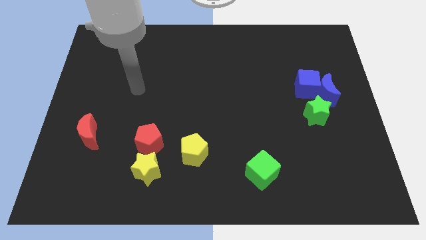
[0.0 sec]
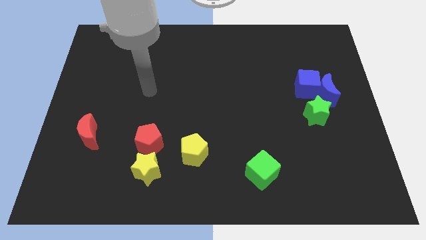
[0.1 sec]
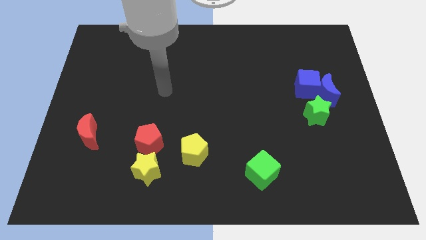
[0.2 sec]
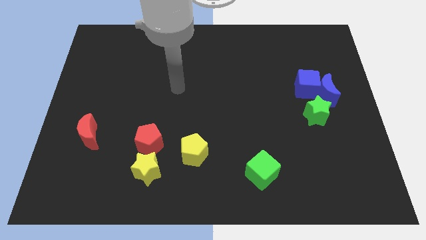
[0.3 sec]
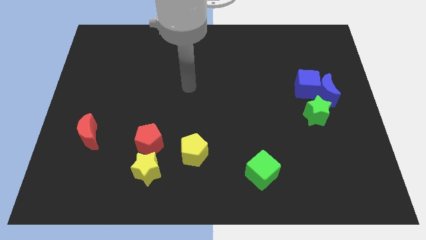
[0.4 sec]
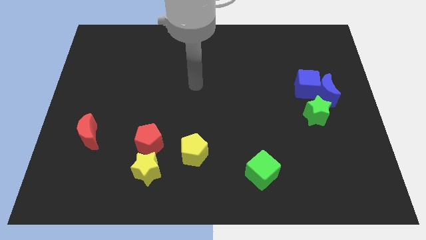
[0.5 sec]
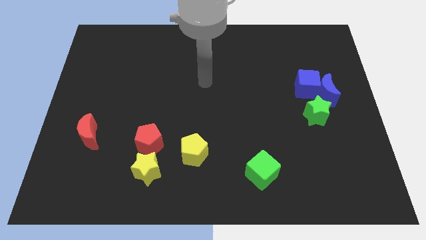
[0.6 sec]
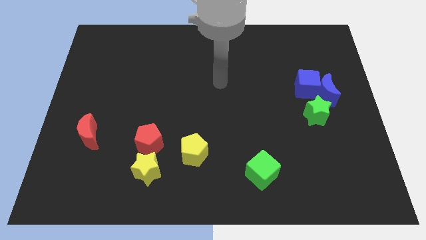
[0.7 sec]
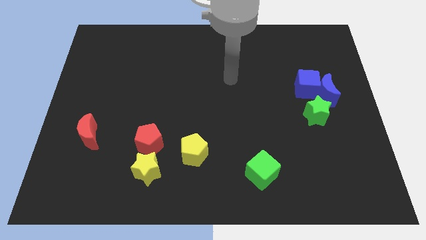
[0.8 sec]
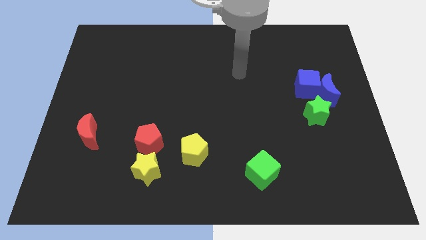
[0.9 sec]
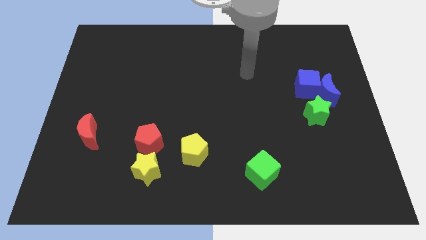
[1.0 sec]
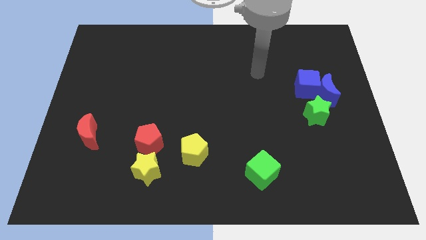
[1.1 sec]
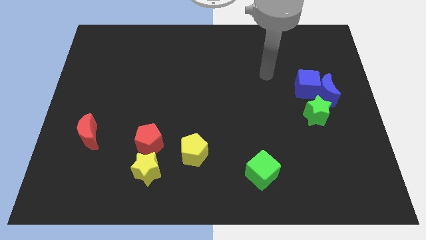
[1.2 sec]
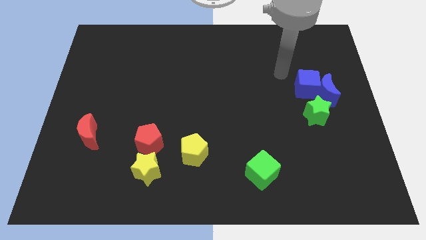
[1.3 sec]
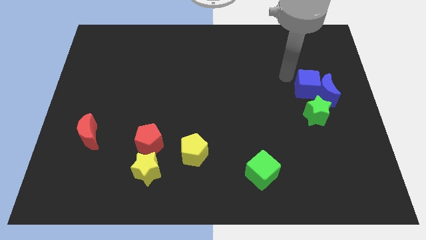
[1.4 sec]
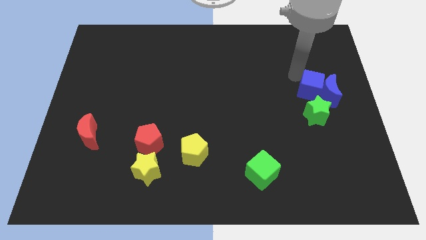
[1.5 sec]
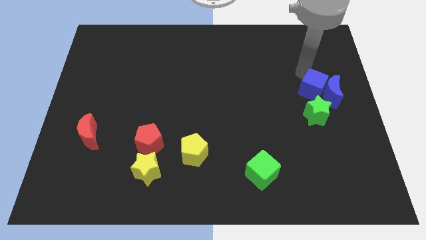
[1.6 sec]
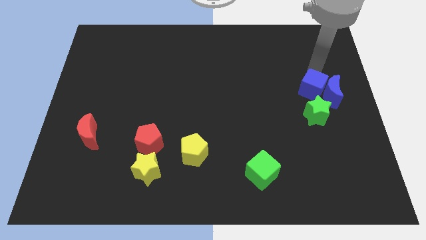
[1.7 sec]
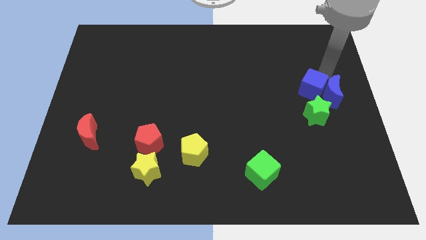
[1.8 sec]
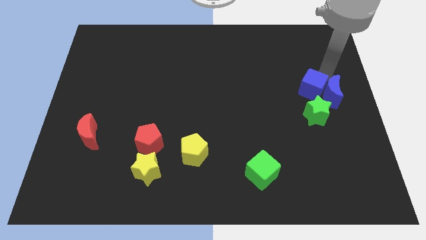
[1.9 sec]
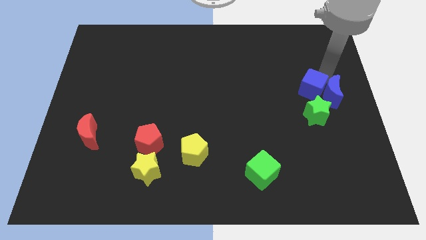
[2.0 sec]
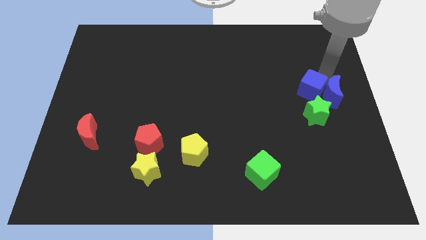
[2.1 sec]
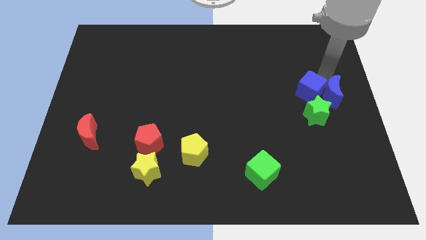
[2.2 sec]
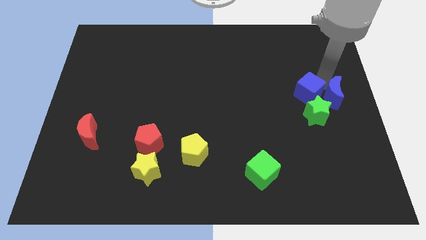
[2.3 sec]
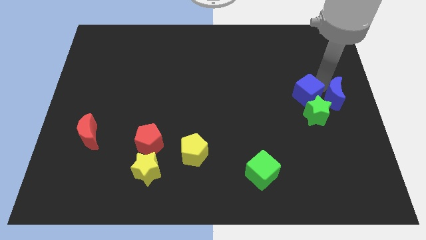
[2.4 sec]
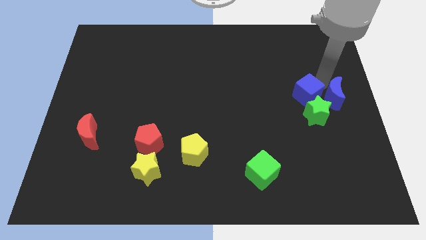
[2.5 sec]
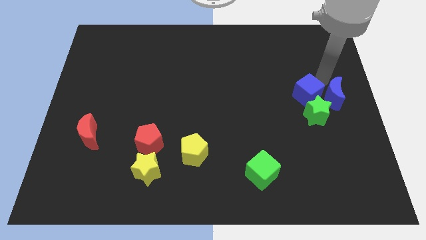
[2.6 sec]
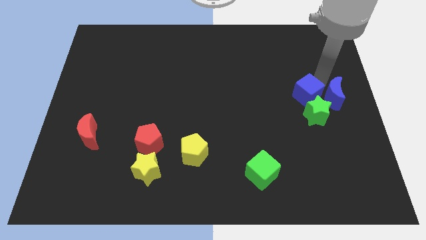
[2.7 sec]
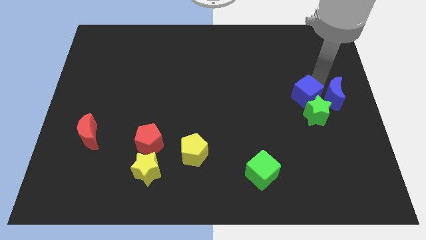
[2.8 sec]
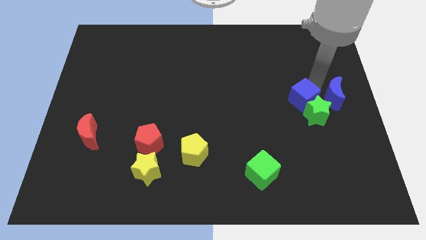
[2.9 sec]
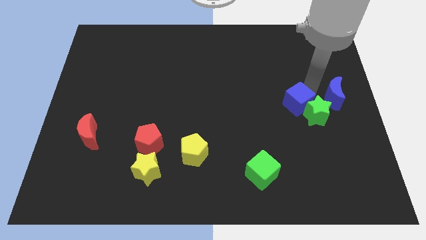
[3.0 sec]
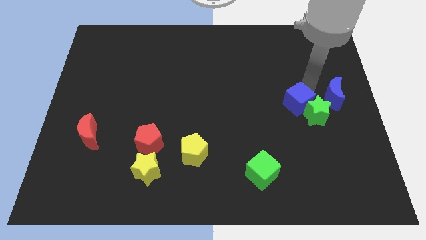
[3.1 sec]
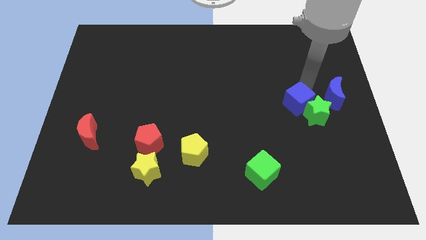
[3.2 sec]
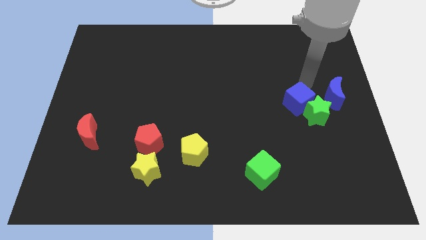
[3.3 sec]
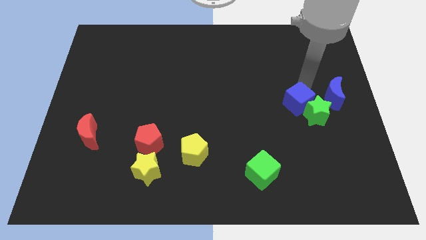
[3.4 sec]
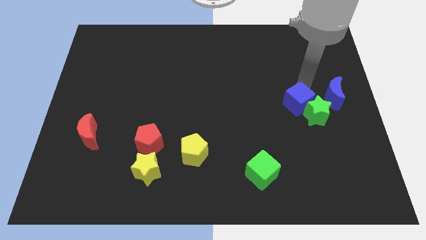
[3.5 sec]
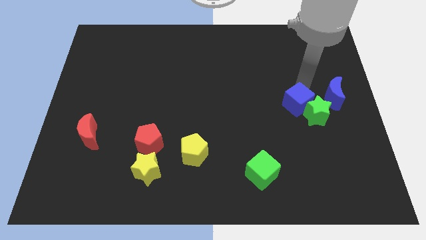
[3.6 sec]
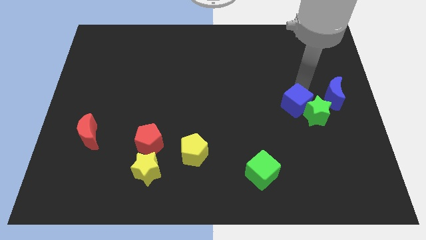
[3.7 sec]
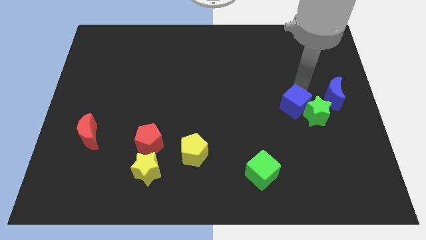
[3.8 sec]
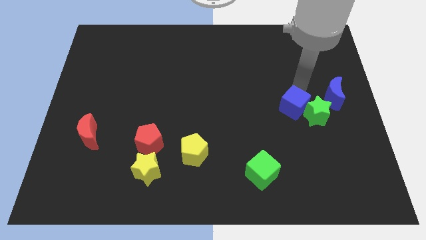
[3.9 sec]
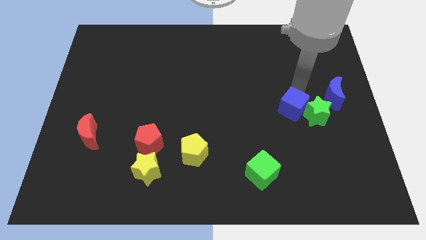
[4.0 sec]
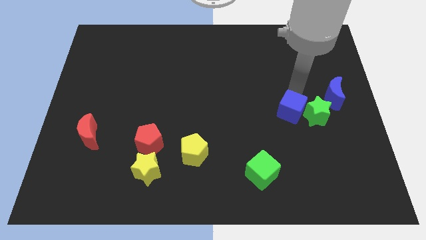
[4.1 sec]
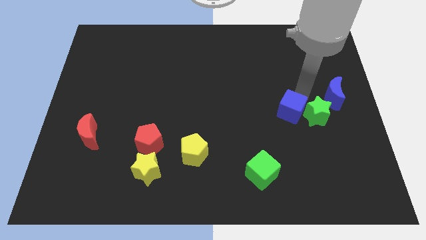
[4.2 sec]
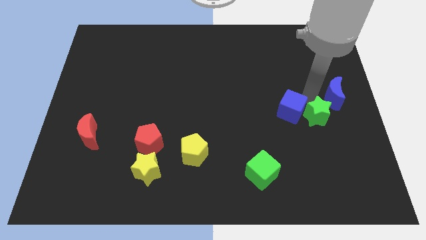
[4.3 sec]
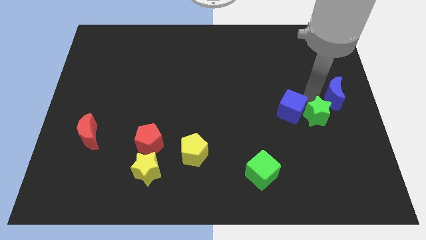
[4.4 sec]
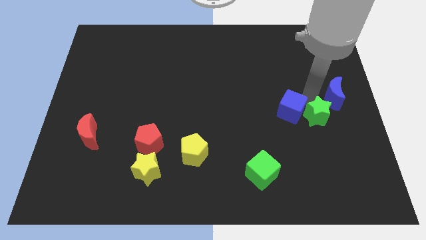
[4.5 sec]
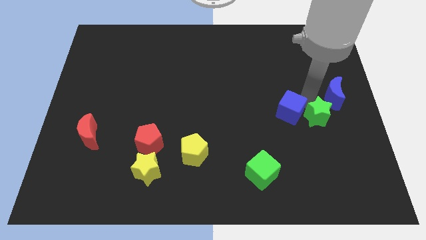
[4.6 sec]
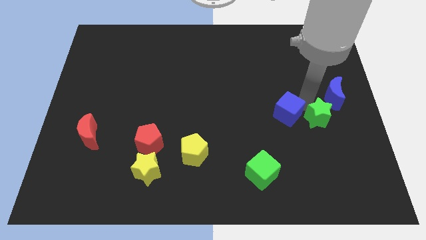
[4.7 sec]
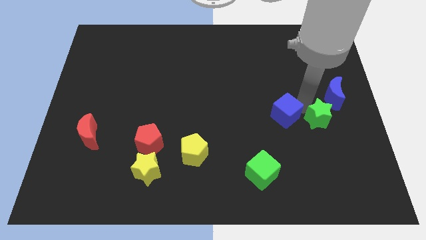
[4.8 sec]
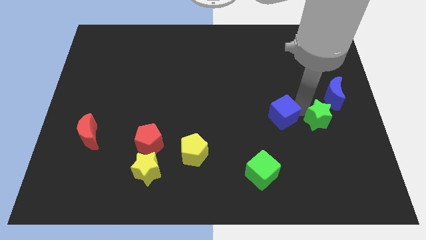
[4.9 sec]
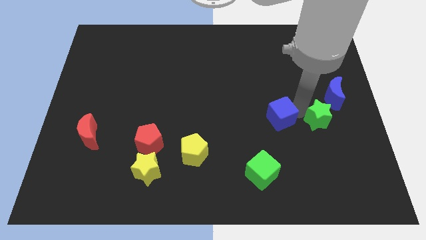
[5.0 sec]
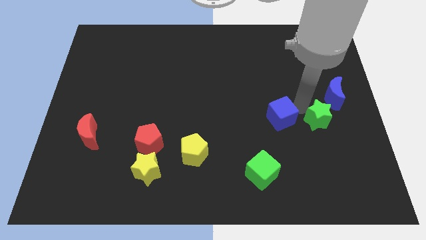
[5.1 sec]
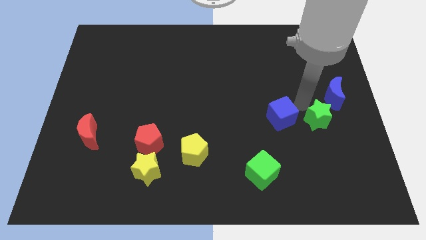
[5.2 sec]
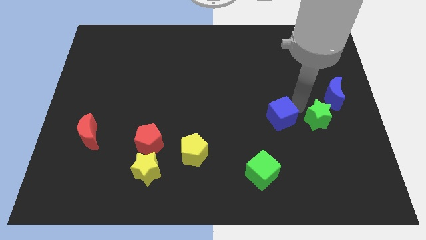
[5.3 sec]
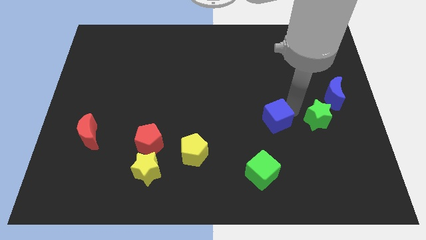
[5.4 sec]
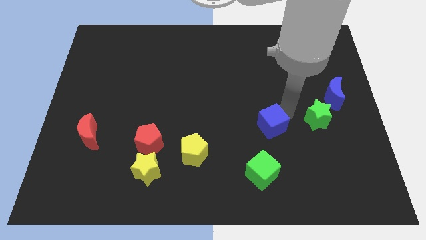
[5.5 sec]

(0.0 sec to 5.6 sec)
move the blue cube to the top of the green cube

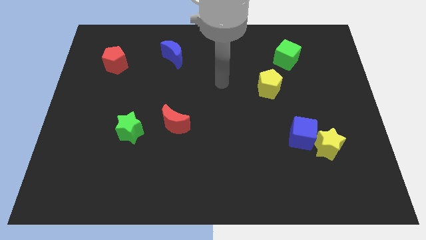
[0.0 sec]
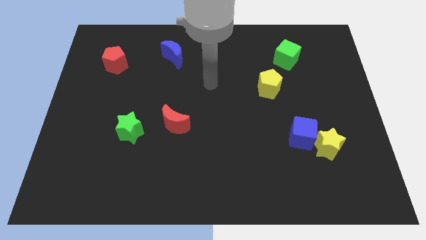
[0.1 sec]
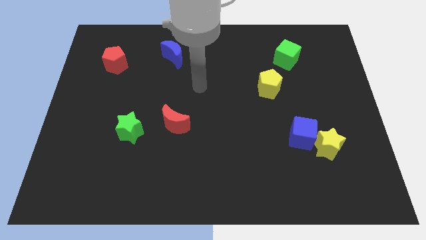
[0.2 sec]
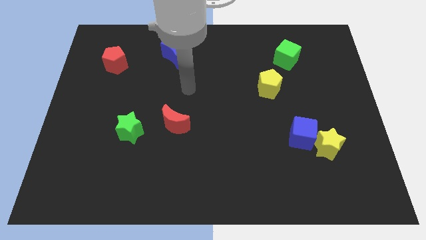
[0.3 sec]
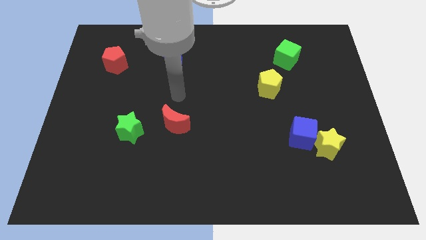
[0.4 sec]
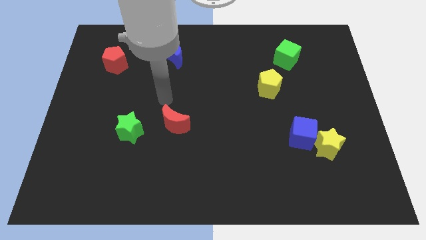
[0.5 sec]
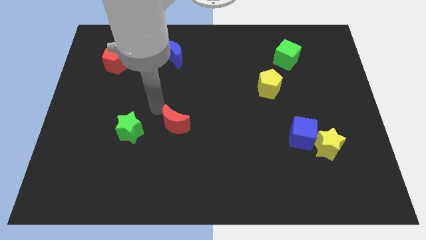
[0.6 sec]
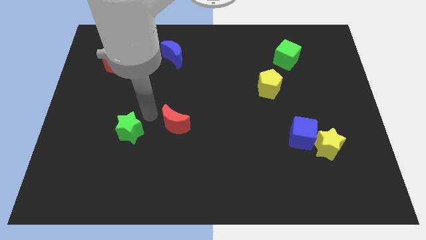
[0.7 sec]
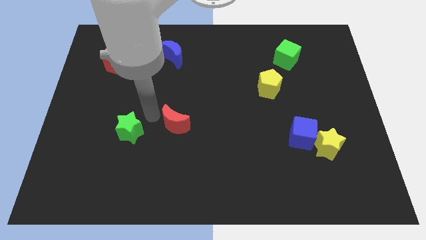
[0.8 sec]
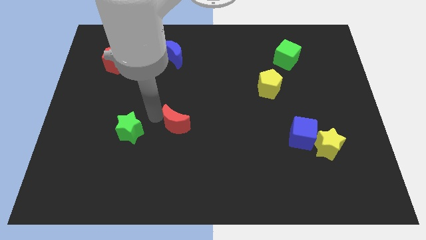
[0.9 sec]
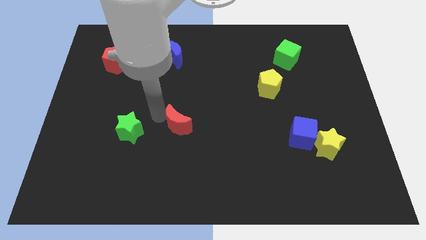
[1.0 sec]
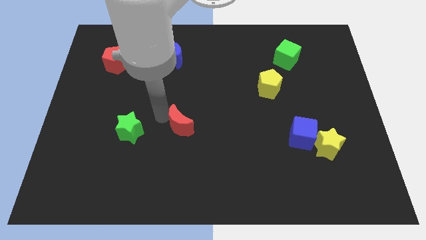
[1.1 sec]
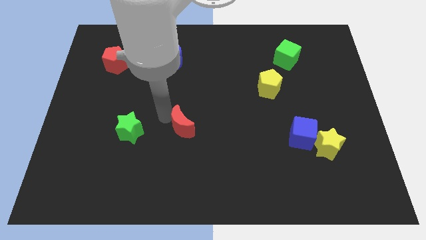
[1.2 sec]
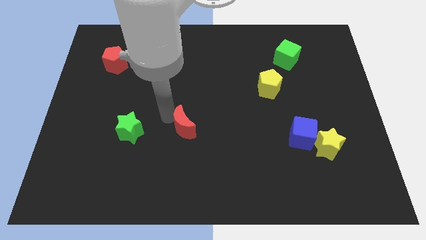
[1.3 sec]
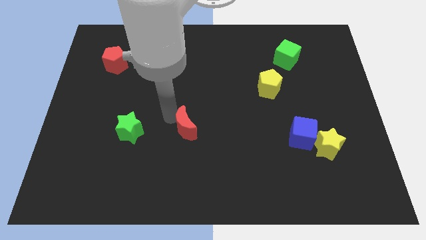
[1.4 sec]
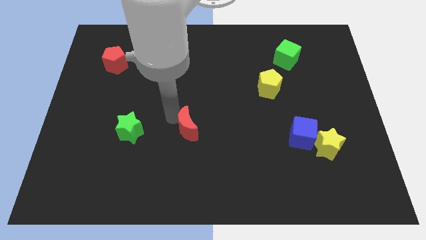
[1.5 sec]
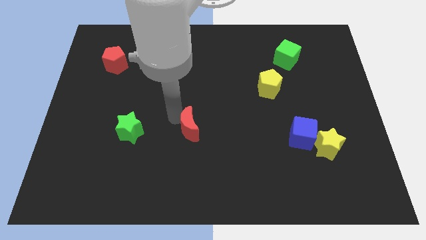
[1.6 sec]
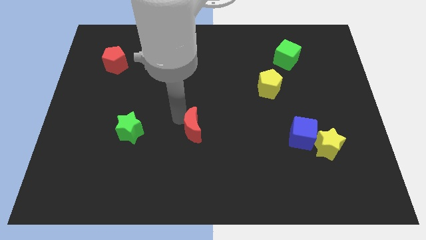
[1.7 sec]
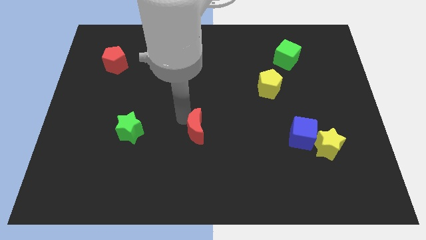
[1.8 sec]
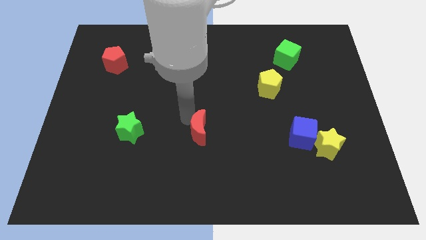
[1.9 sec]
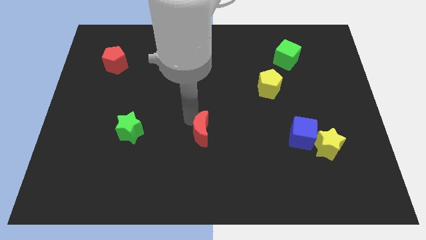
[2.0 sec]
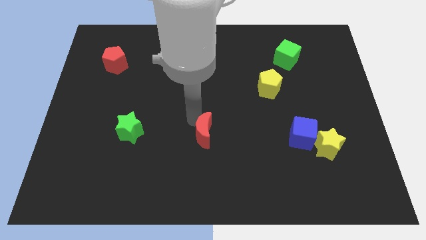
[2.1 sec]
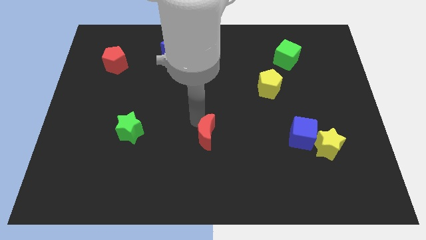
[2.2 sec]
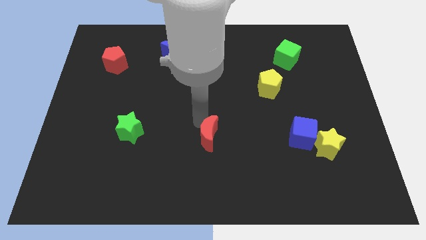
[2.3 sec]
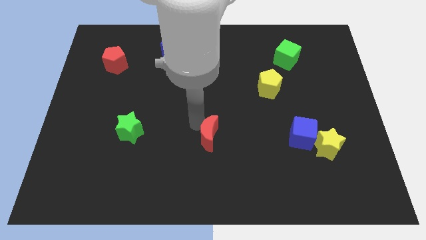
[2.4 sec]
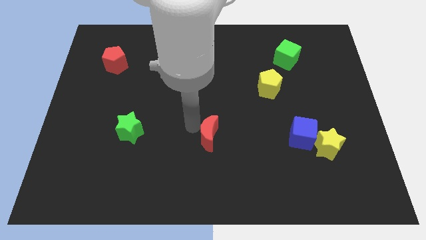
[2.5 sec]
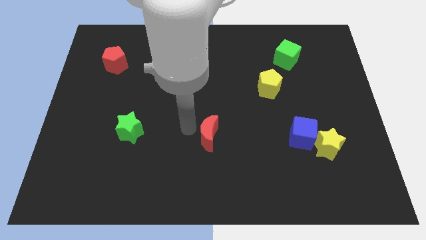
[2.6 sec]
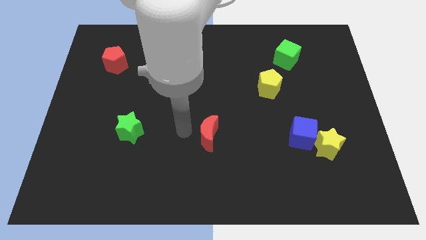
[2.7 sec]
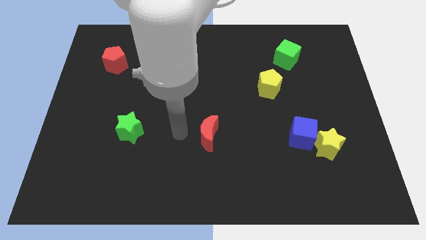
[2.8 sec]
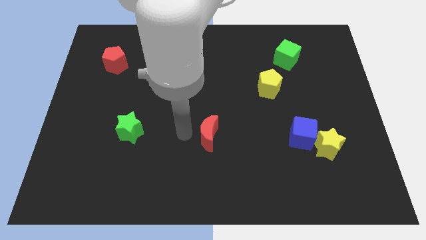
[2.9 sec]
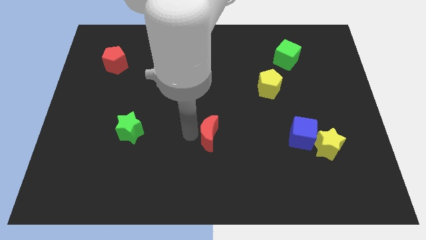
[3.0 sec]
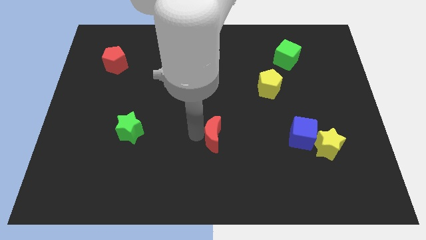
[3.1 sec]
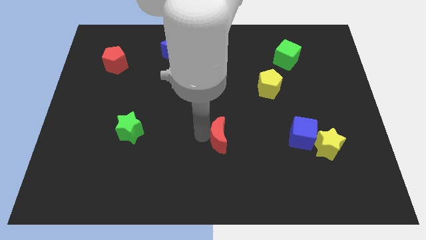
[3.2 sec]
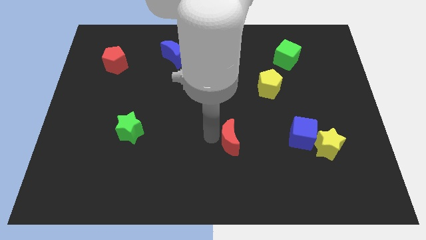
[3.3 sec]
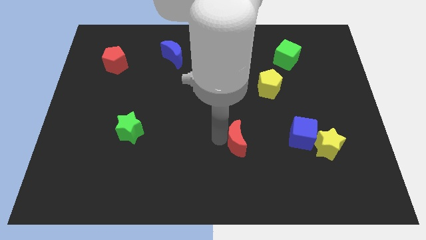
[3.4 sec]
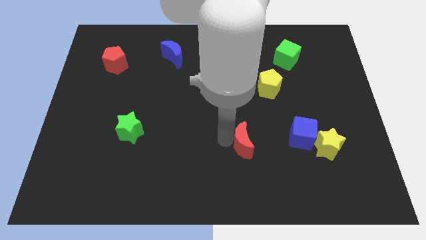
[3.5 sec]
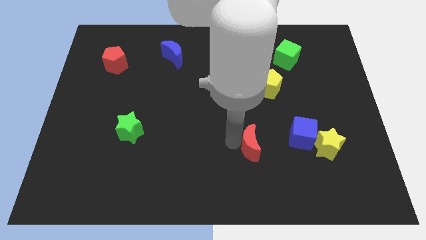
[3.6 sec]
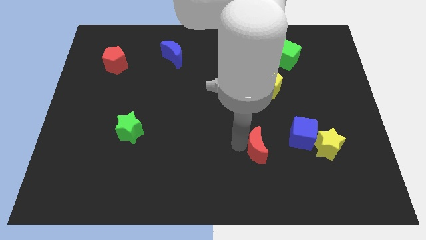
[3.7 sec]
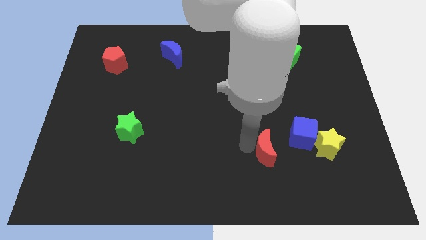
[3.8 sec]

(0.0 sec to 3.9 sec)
slide the red moon diagonally down and to the left of the blue cube
